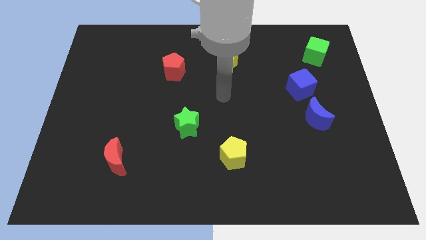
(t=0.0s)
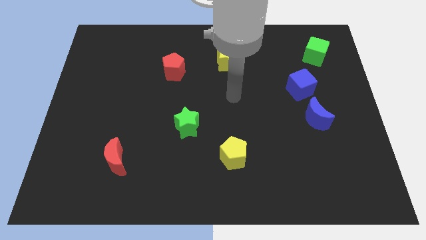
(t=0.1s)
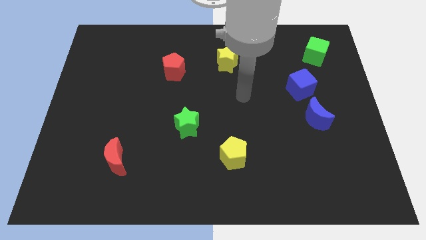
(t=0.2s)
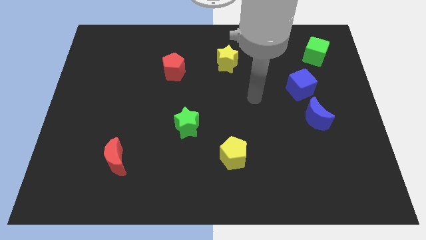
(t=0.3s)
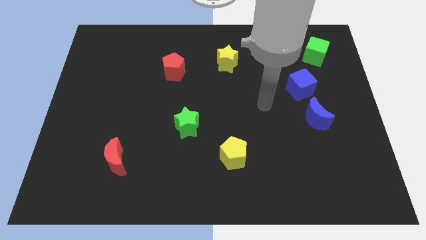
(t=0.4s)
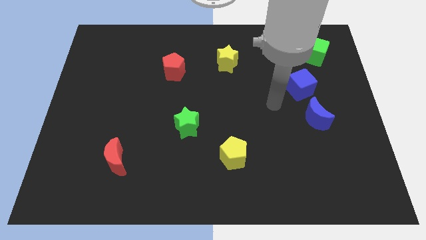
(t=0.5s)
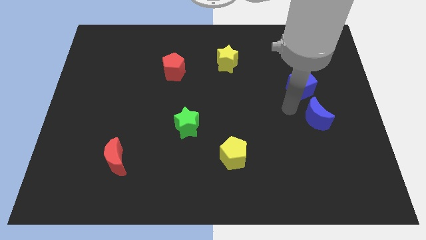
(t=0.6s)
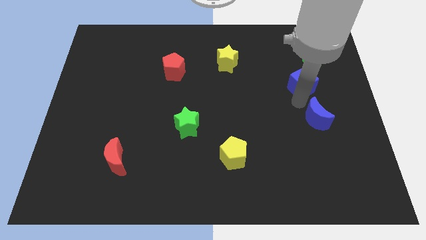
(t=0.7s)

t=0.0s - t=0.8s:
pull the blue moon apart from the blue cube

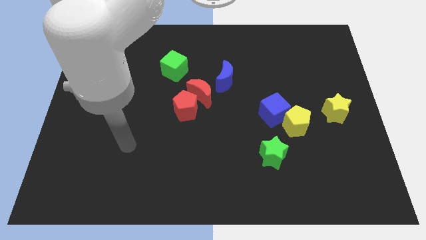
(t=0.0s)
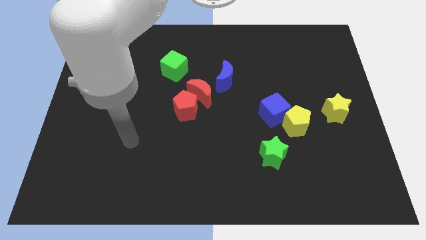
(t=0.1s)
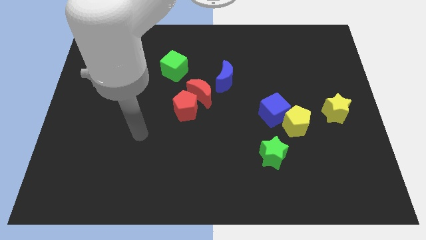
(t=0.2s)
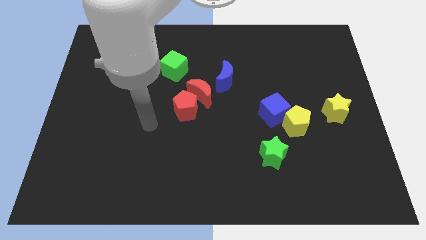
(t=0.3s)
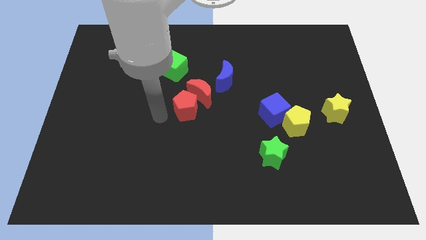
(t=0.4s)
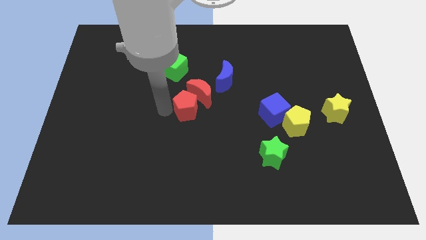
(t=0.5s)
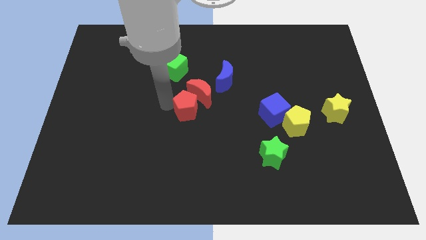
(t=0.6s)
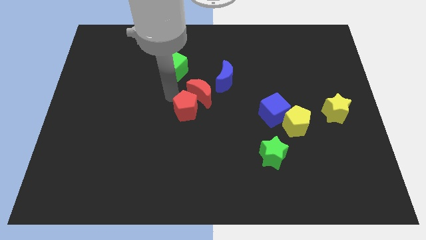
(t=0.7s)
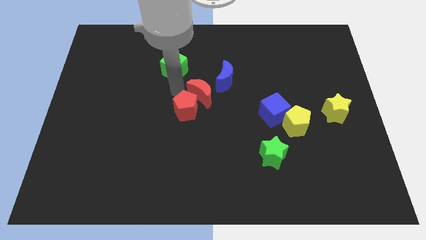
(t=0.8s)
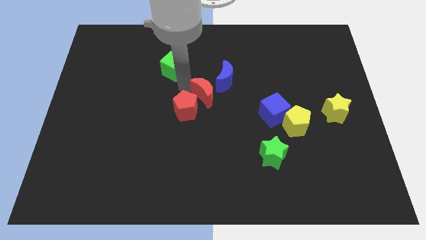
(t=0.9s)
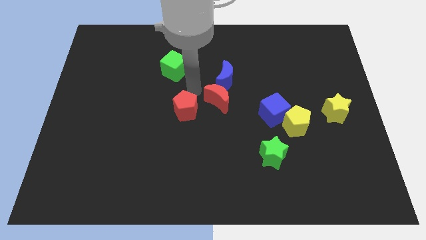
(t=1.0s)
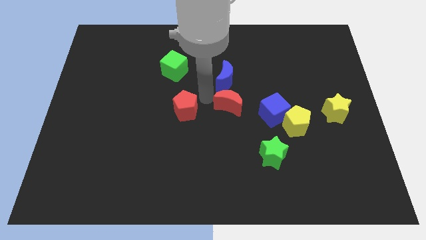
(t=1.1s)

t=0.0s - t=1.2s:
separate the red pentagon from the red moon

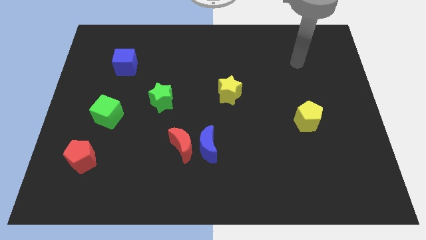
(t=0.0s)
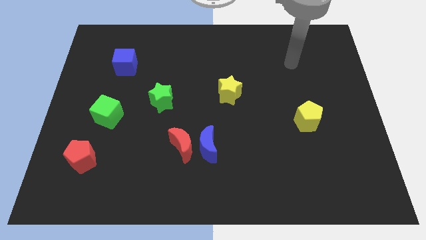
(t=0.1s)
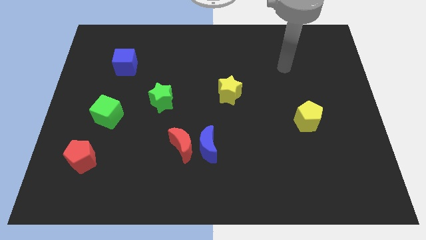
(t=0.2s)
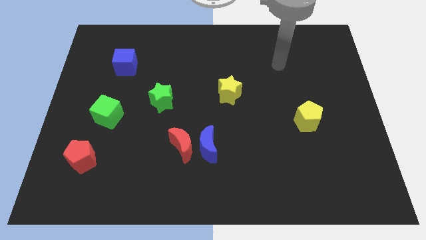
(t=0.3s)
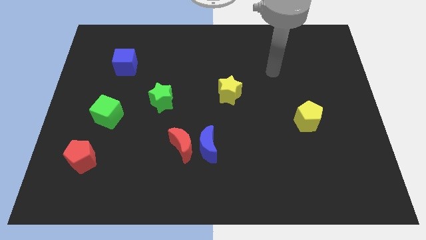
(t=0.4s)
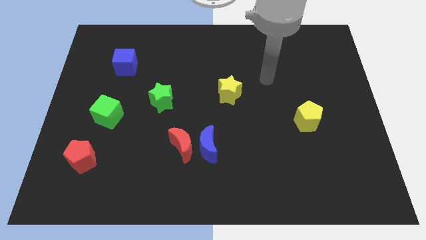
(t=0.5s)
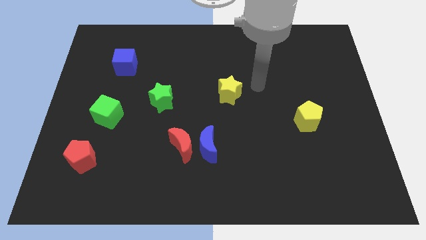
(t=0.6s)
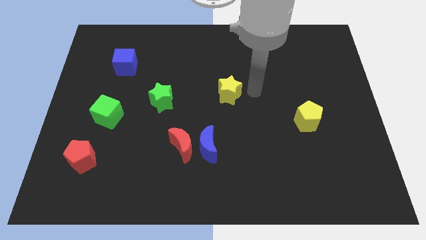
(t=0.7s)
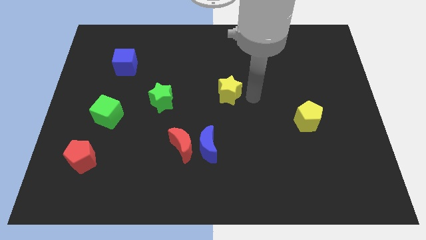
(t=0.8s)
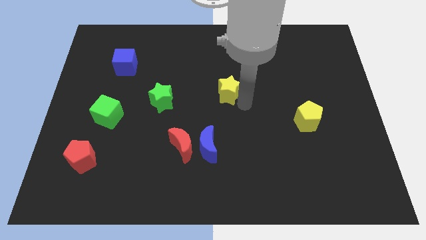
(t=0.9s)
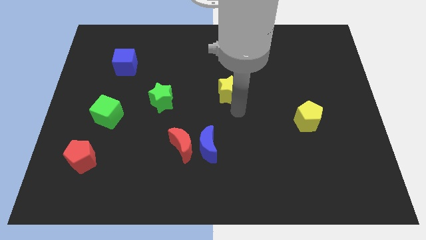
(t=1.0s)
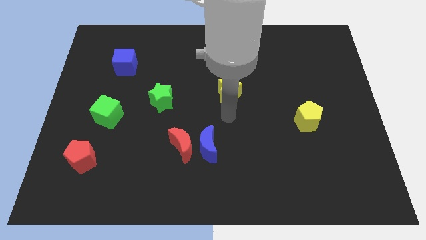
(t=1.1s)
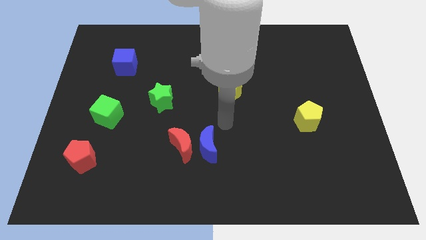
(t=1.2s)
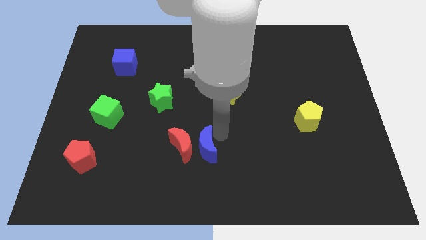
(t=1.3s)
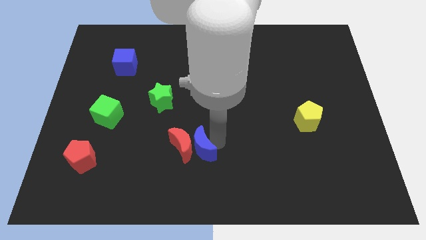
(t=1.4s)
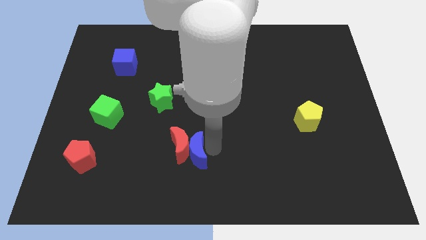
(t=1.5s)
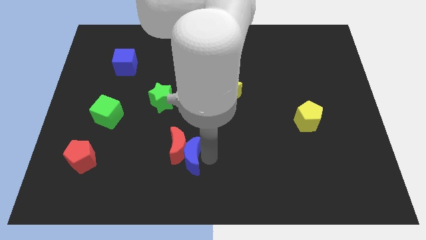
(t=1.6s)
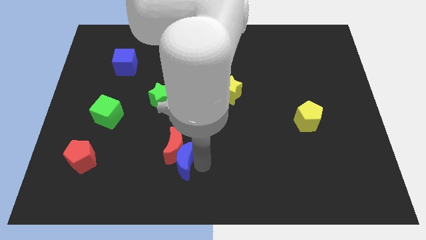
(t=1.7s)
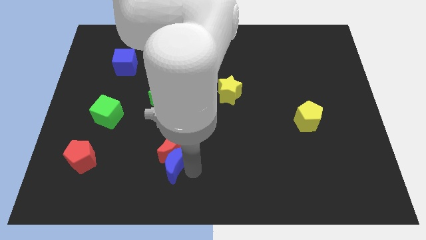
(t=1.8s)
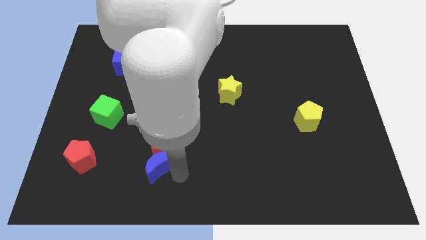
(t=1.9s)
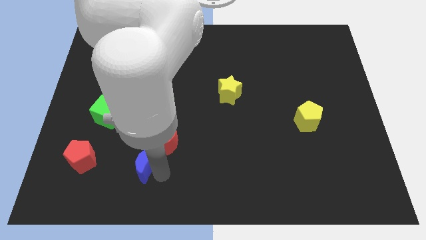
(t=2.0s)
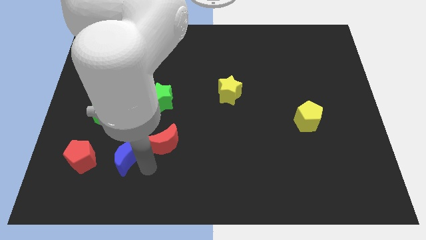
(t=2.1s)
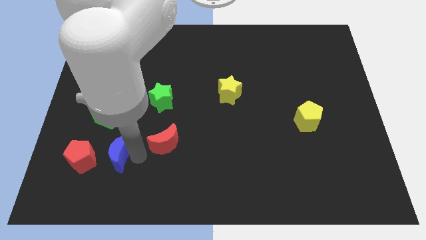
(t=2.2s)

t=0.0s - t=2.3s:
pull the red moon apart from the blue moon

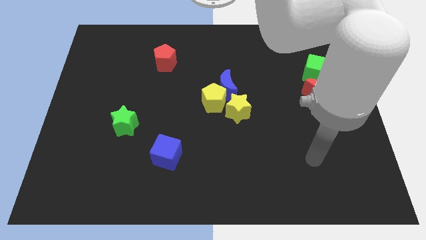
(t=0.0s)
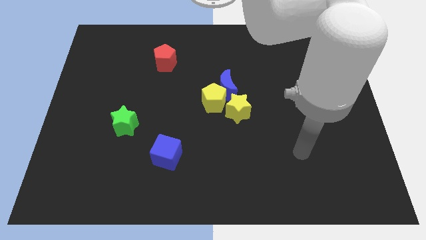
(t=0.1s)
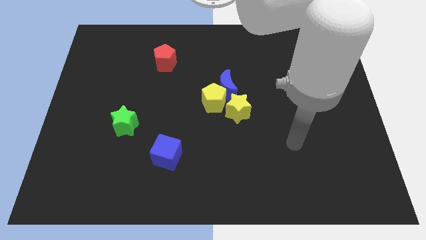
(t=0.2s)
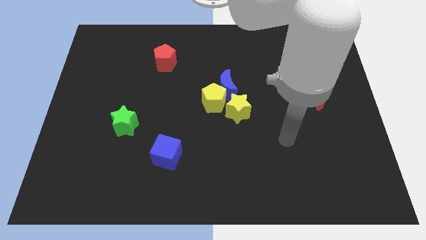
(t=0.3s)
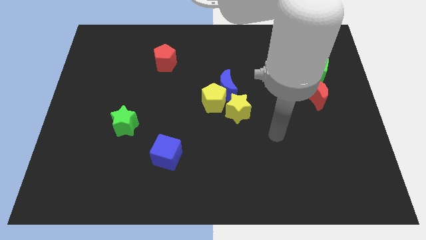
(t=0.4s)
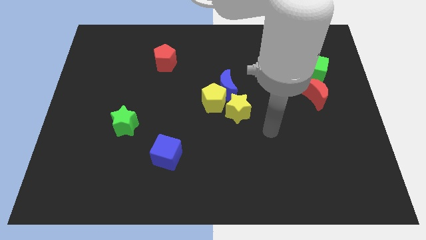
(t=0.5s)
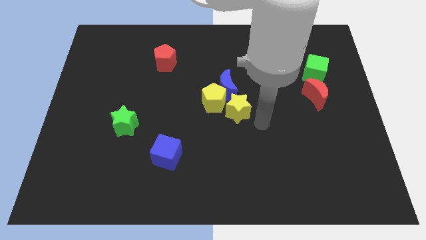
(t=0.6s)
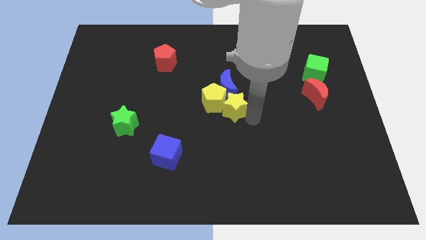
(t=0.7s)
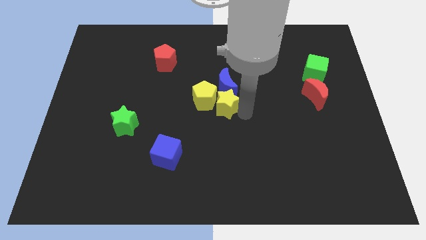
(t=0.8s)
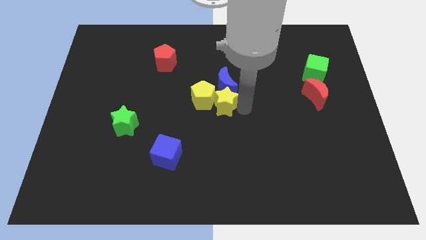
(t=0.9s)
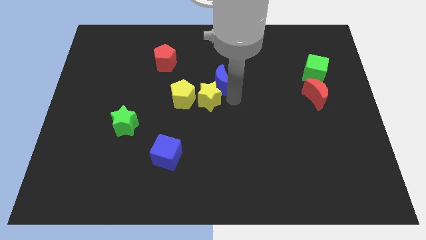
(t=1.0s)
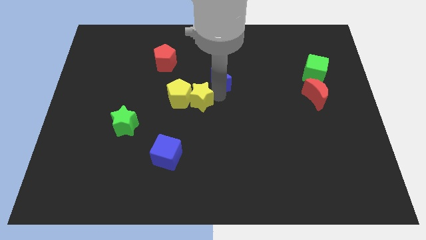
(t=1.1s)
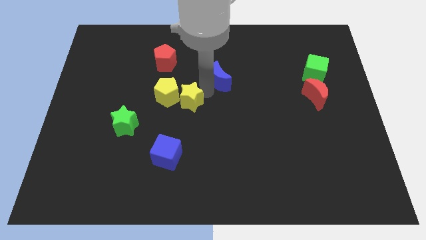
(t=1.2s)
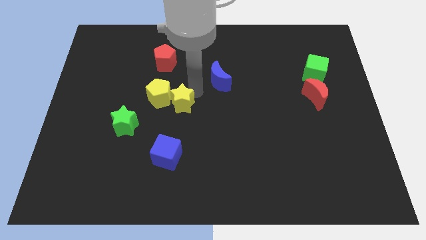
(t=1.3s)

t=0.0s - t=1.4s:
separate the yellow pentagon from the blue moon and yellow star

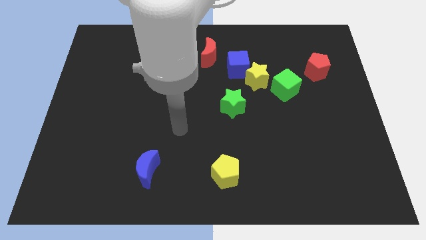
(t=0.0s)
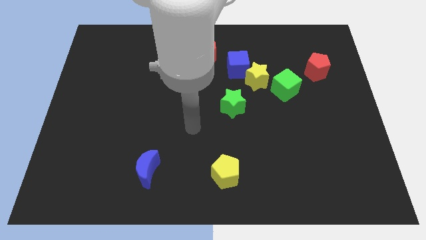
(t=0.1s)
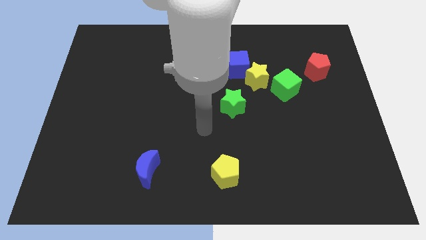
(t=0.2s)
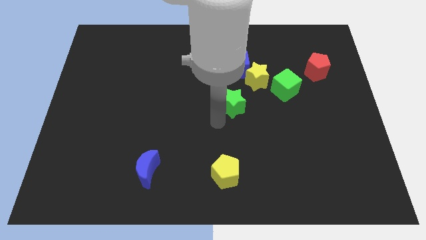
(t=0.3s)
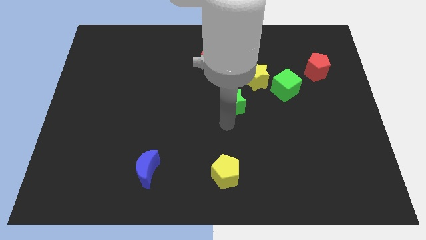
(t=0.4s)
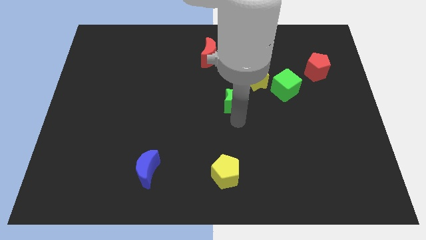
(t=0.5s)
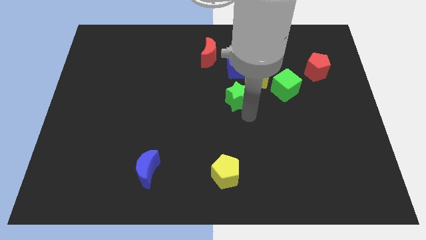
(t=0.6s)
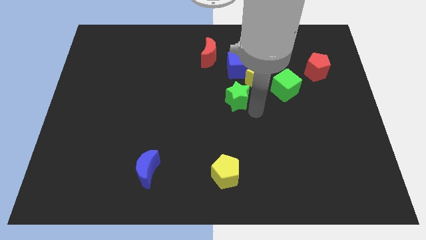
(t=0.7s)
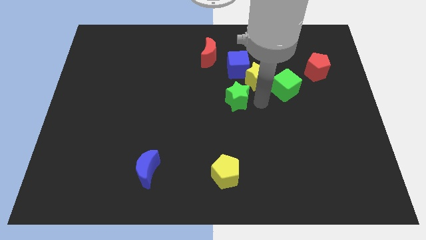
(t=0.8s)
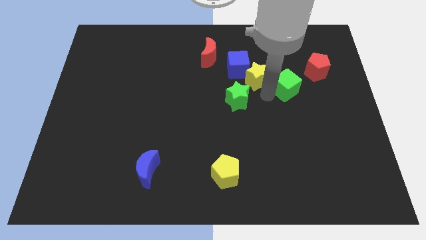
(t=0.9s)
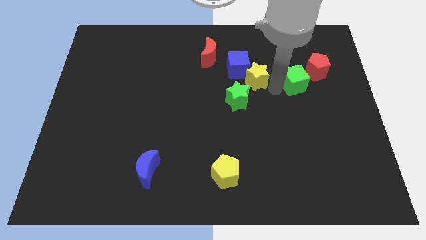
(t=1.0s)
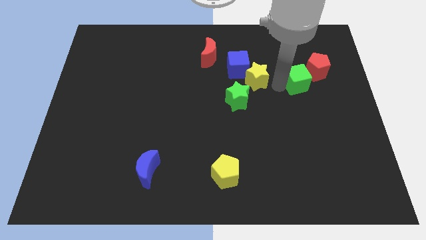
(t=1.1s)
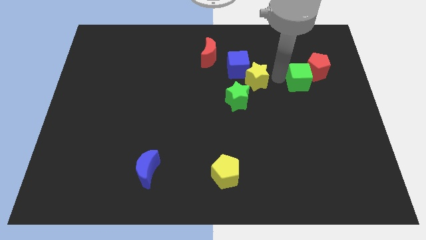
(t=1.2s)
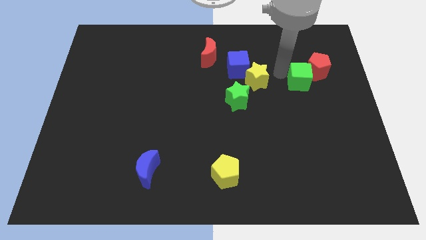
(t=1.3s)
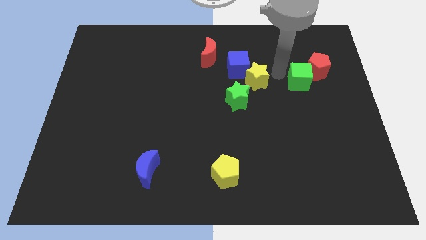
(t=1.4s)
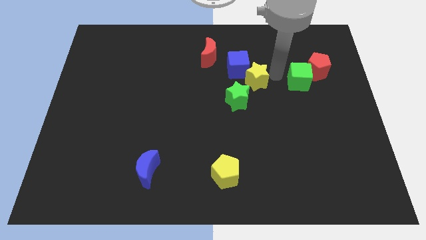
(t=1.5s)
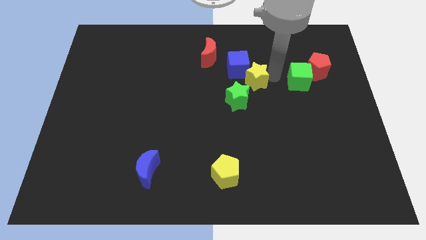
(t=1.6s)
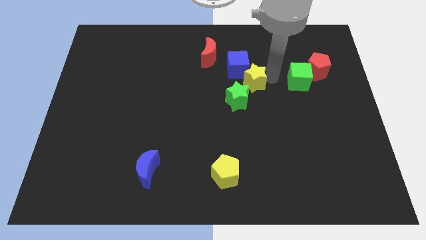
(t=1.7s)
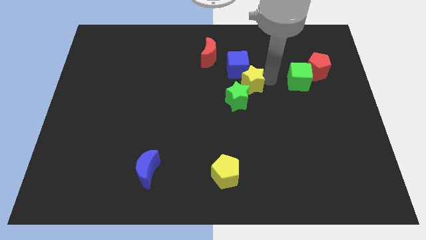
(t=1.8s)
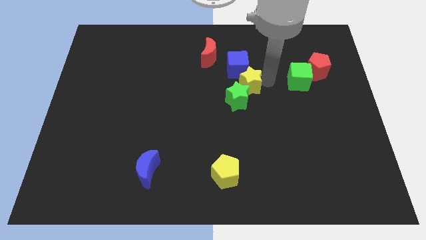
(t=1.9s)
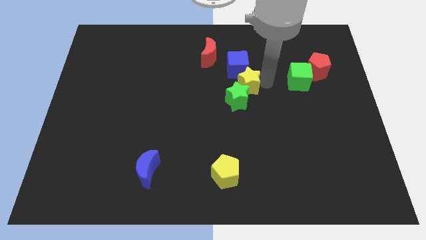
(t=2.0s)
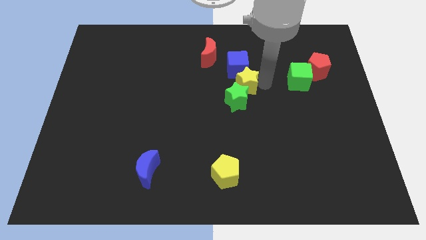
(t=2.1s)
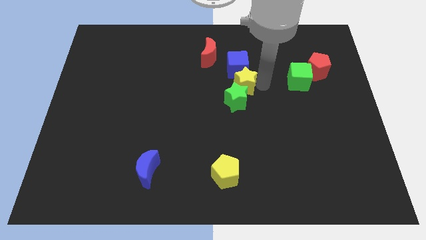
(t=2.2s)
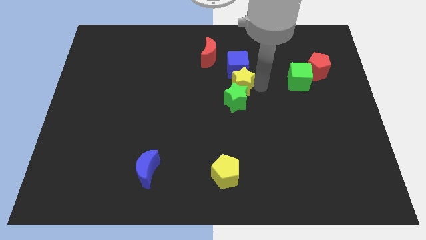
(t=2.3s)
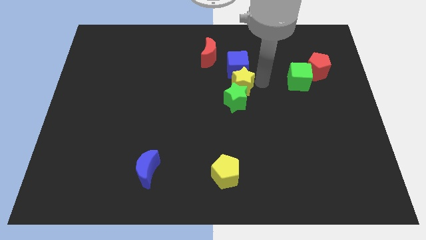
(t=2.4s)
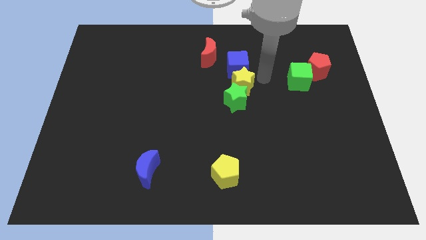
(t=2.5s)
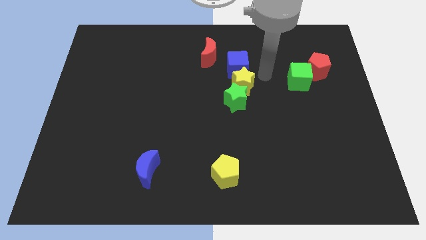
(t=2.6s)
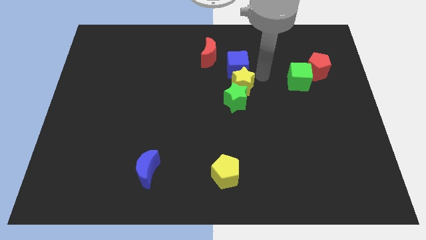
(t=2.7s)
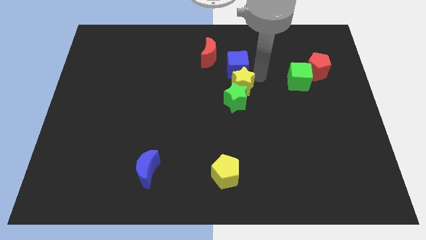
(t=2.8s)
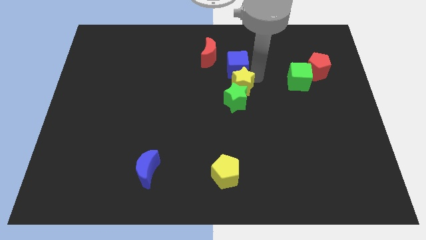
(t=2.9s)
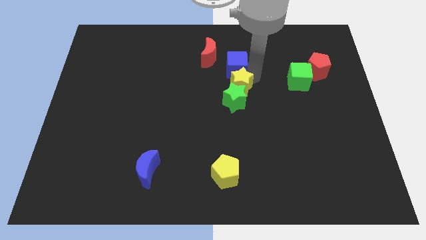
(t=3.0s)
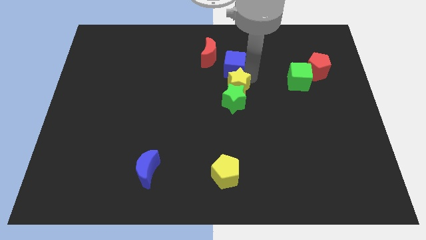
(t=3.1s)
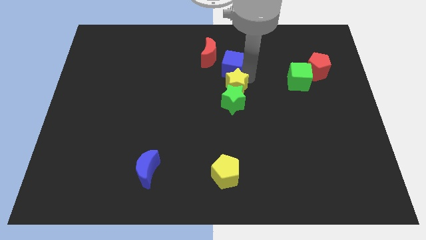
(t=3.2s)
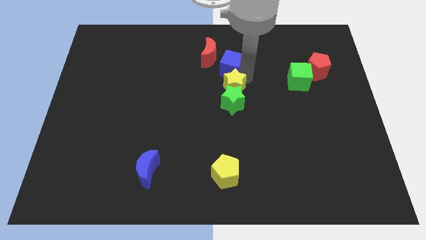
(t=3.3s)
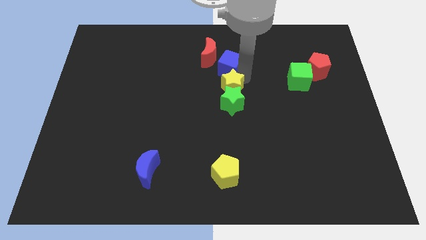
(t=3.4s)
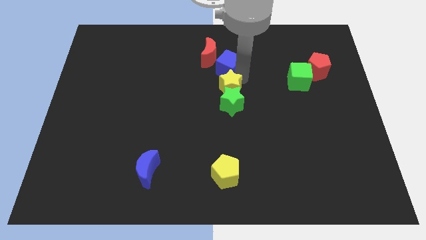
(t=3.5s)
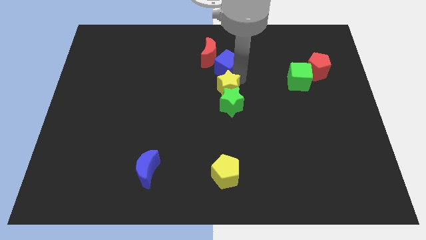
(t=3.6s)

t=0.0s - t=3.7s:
separate the yellow star from the blue cube and green cube
